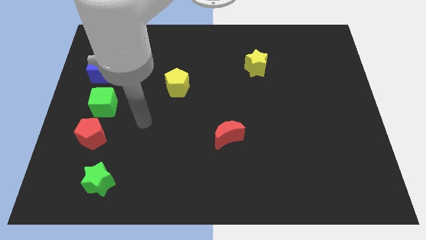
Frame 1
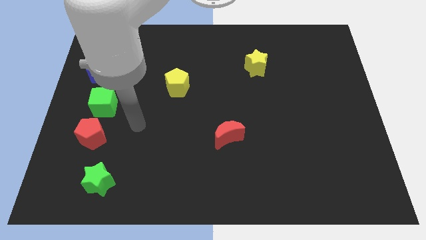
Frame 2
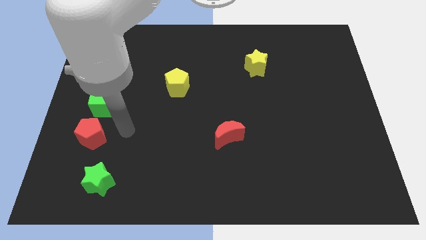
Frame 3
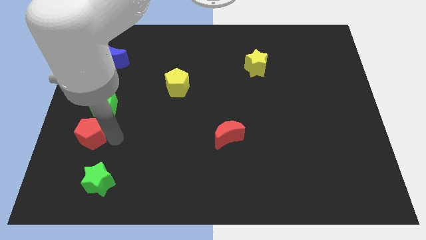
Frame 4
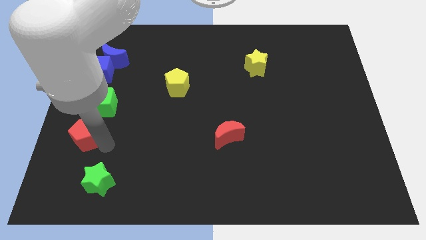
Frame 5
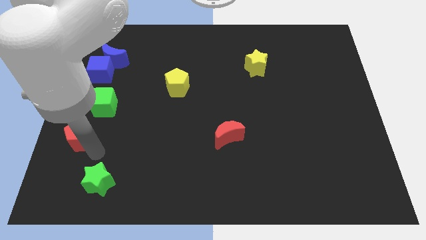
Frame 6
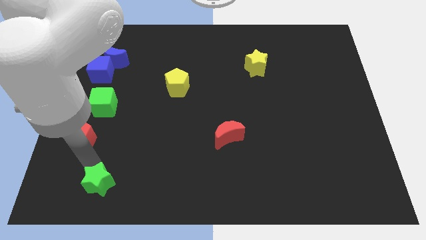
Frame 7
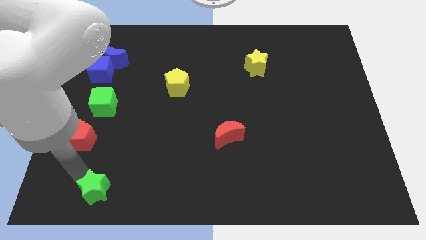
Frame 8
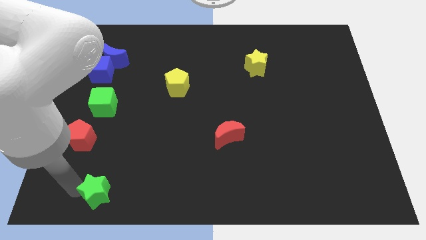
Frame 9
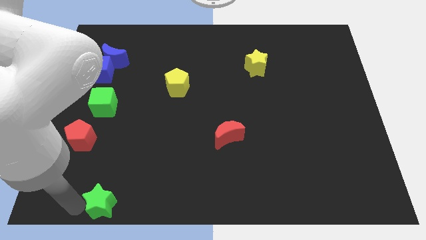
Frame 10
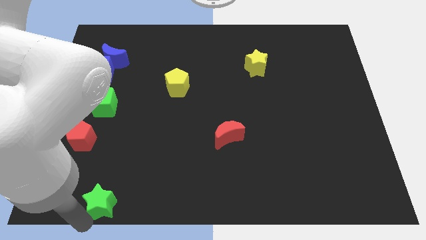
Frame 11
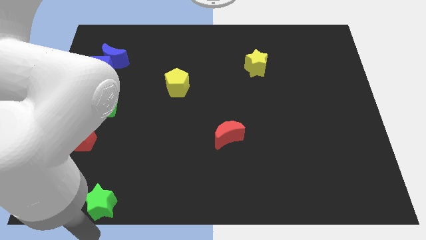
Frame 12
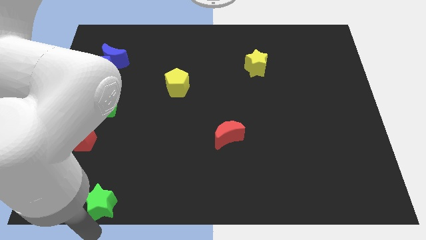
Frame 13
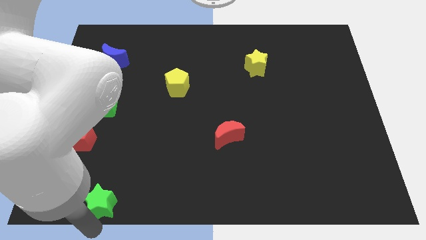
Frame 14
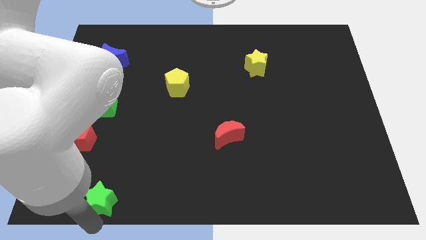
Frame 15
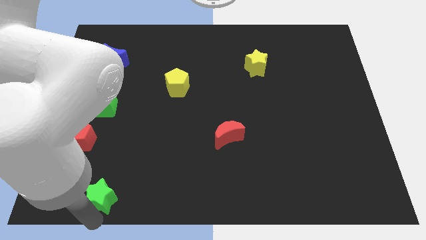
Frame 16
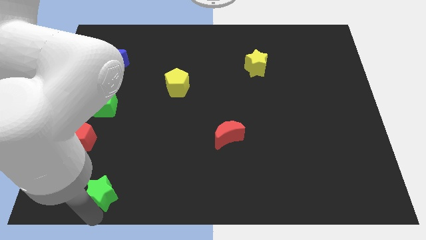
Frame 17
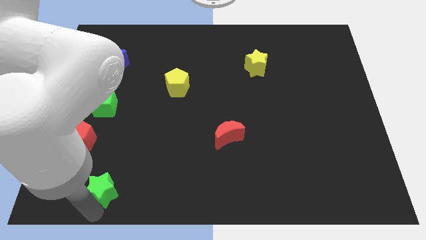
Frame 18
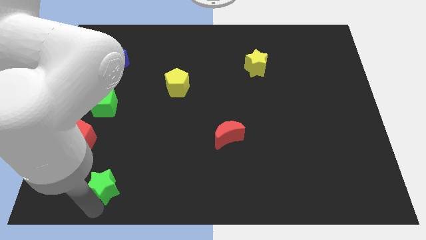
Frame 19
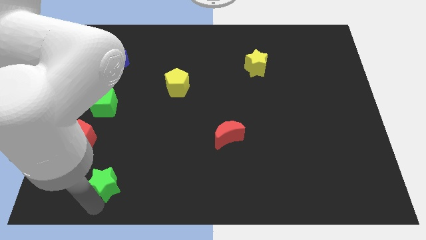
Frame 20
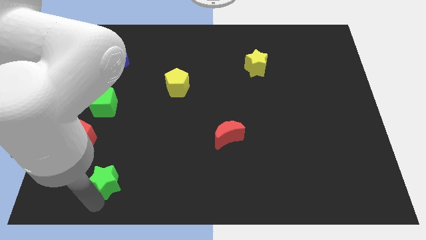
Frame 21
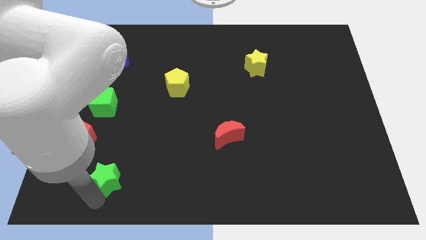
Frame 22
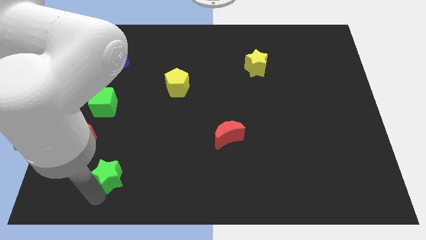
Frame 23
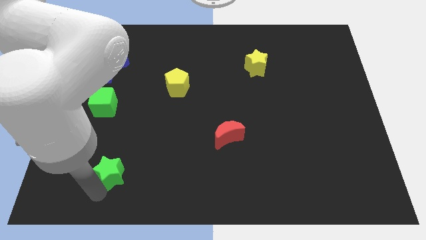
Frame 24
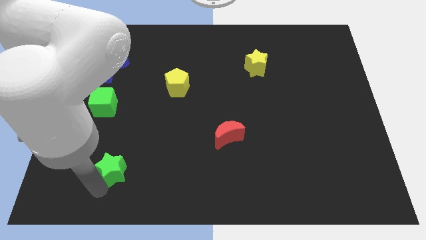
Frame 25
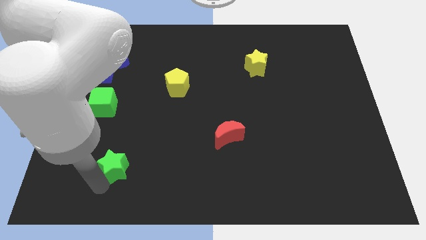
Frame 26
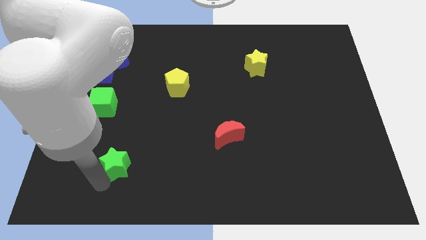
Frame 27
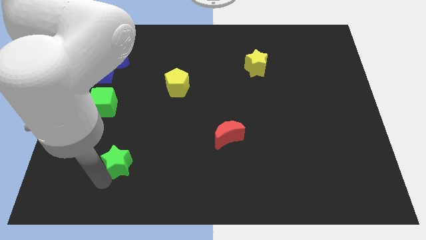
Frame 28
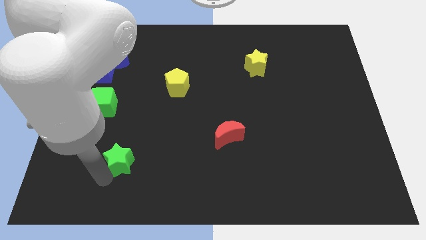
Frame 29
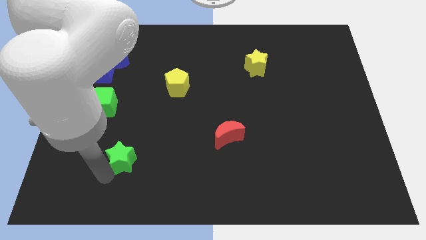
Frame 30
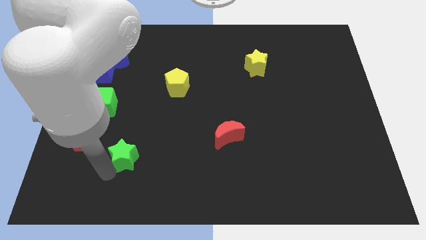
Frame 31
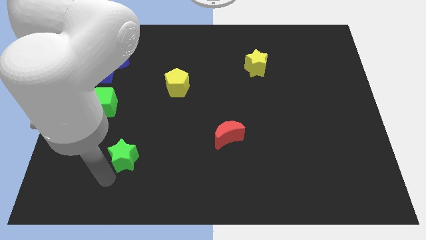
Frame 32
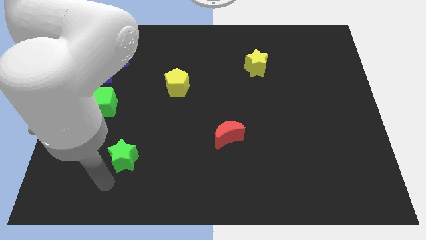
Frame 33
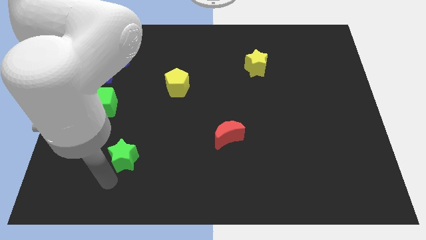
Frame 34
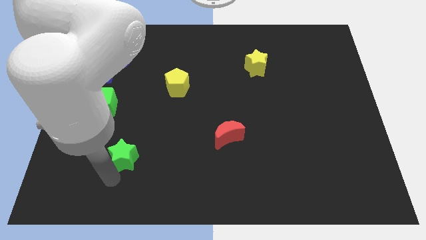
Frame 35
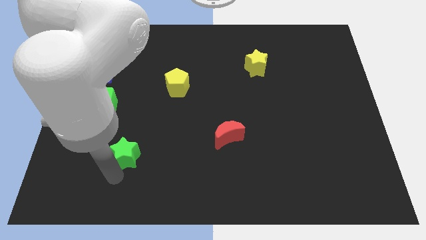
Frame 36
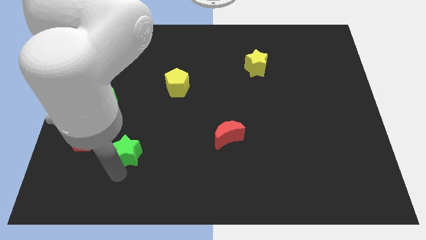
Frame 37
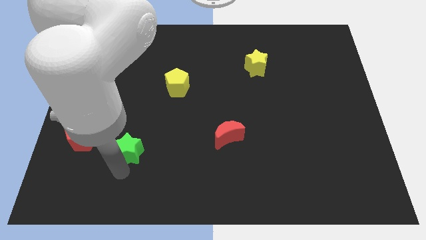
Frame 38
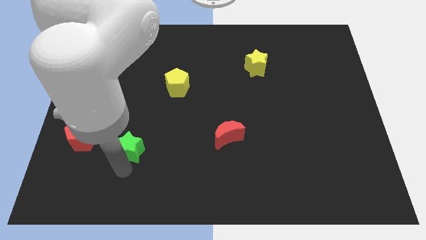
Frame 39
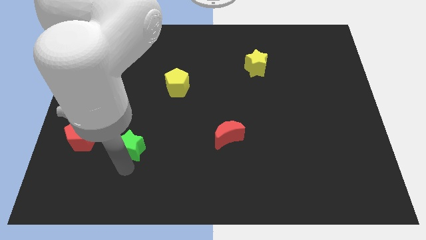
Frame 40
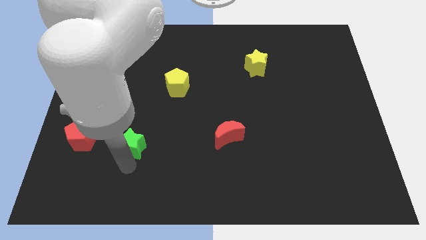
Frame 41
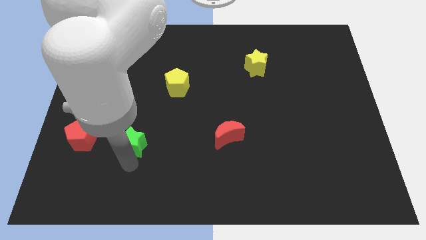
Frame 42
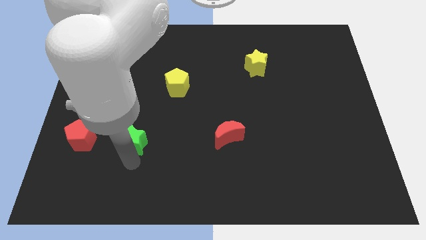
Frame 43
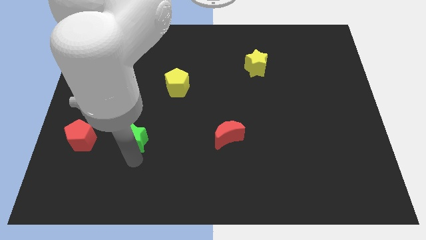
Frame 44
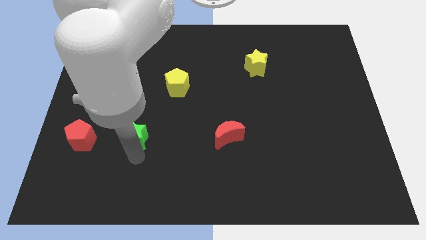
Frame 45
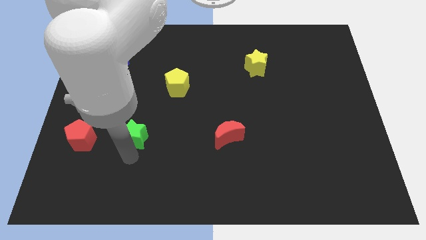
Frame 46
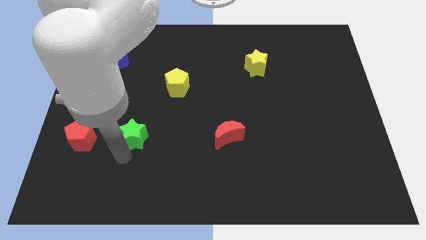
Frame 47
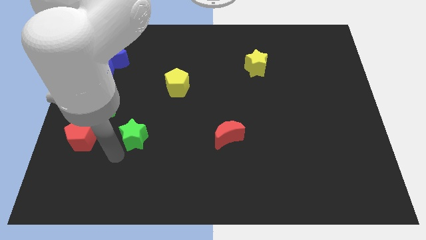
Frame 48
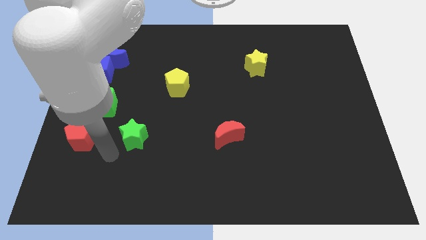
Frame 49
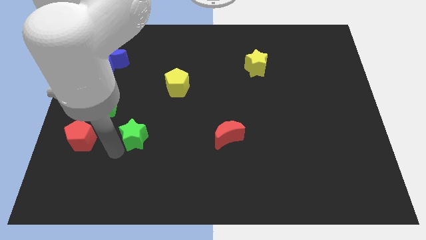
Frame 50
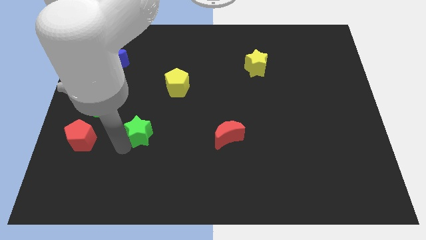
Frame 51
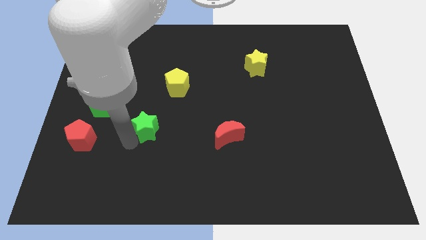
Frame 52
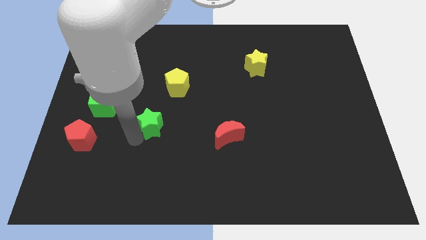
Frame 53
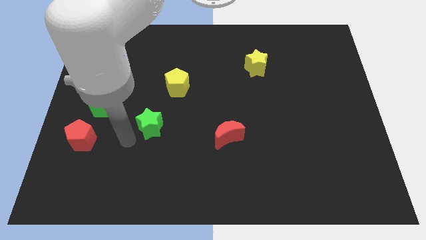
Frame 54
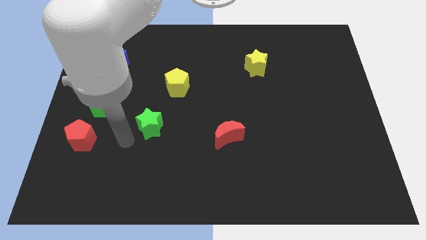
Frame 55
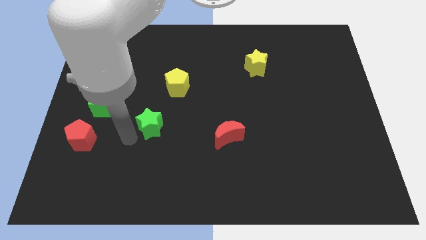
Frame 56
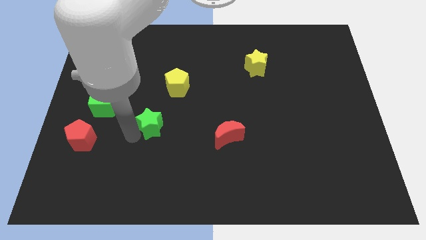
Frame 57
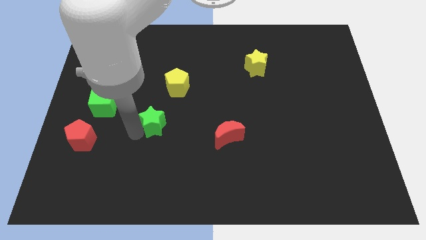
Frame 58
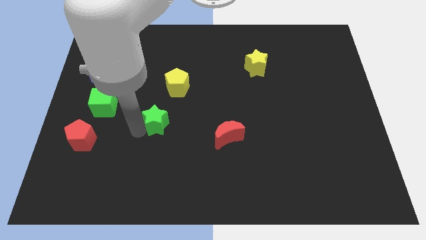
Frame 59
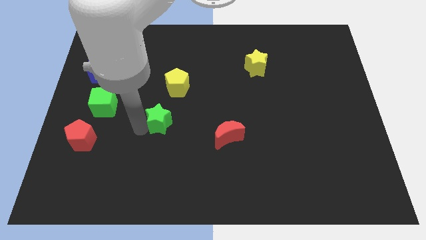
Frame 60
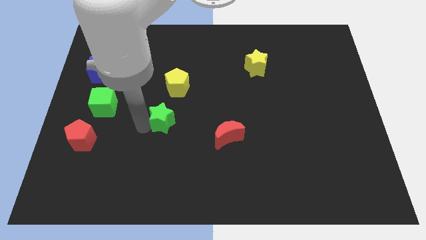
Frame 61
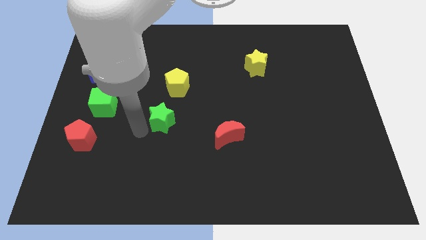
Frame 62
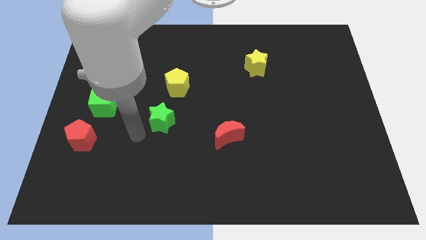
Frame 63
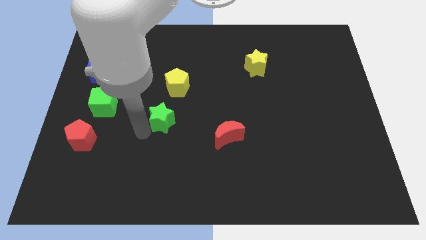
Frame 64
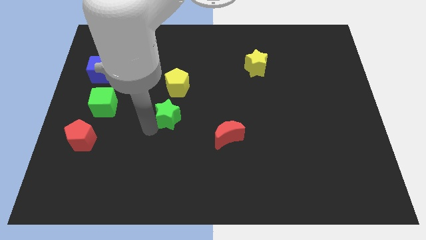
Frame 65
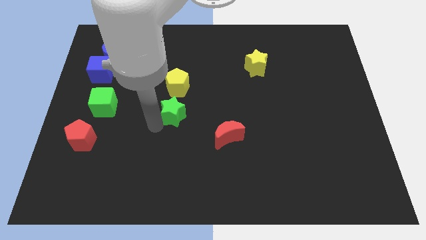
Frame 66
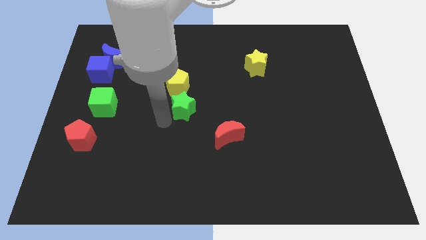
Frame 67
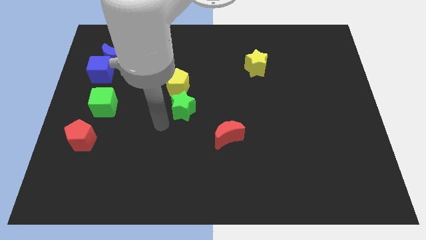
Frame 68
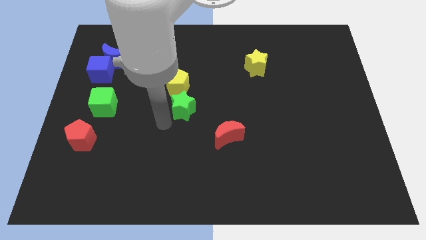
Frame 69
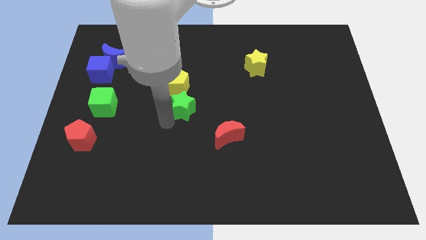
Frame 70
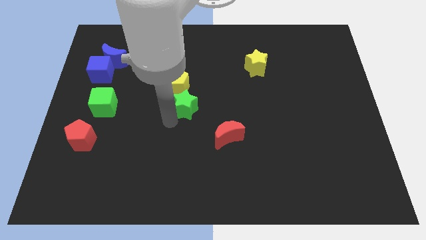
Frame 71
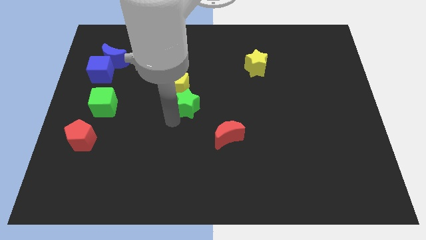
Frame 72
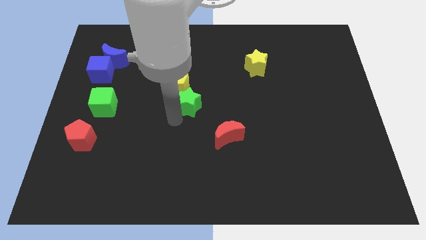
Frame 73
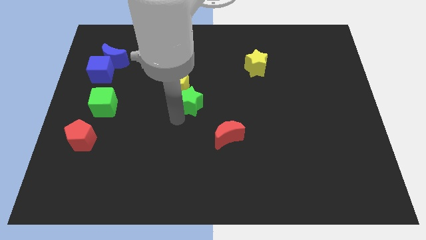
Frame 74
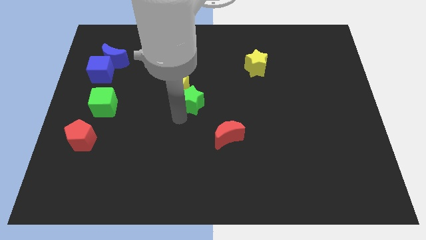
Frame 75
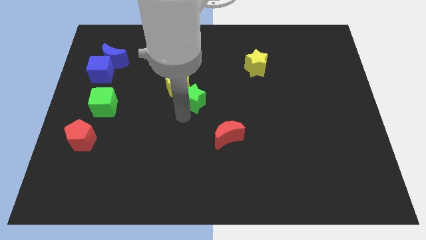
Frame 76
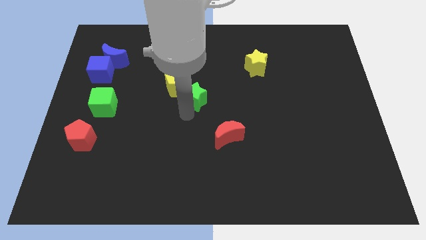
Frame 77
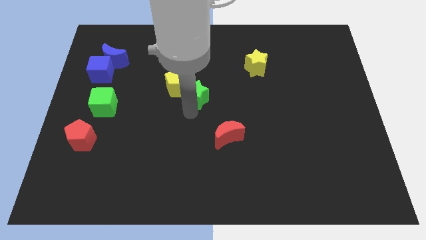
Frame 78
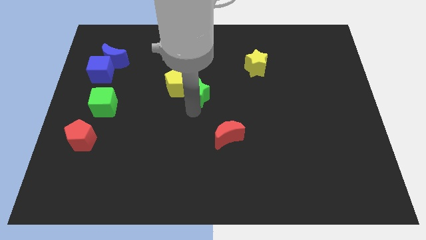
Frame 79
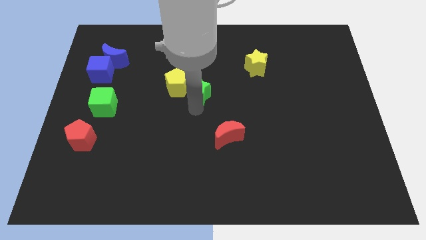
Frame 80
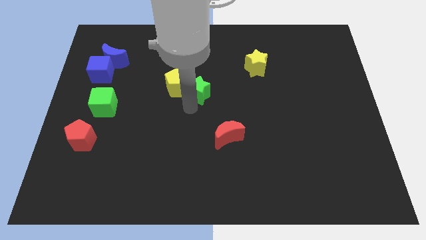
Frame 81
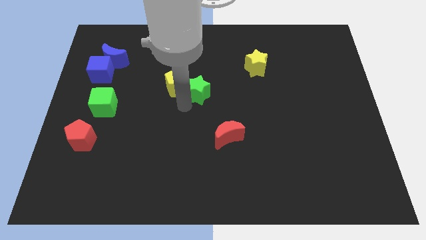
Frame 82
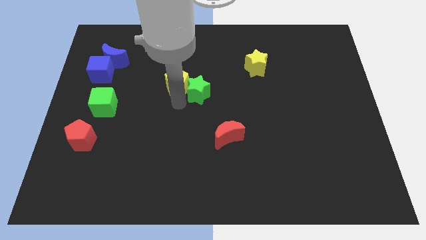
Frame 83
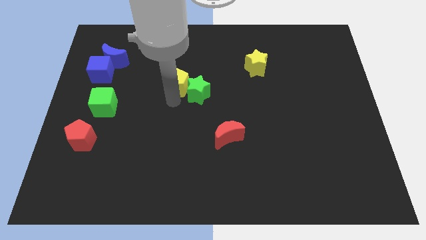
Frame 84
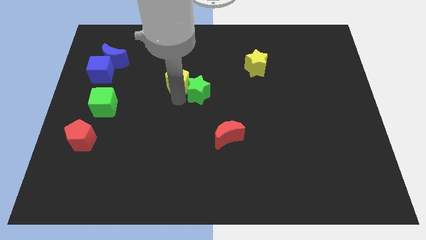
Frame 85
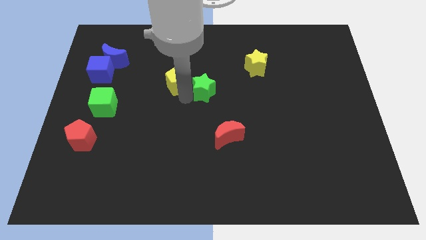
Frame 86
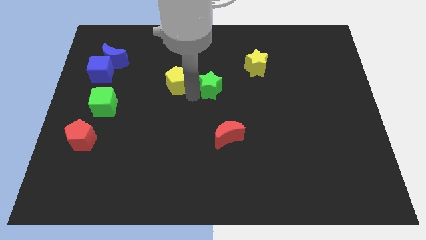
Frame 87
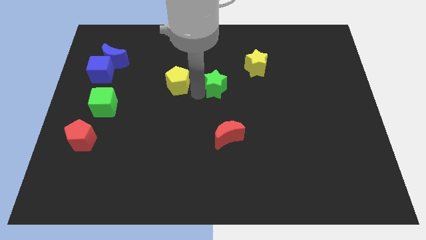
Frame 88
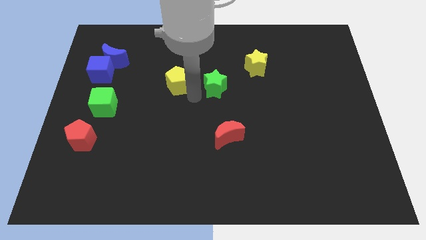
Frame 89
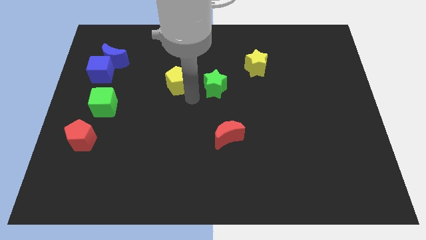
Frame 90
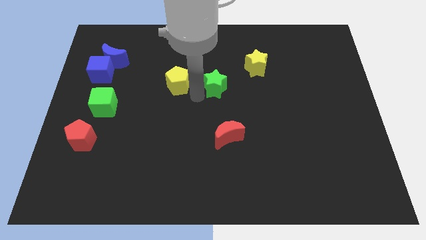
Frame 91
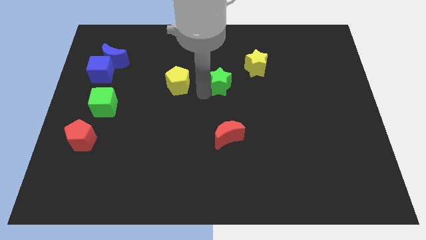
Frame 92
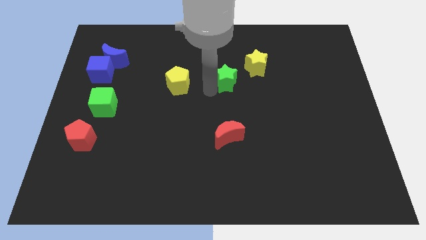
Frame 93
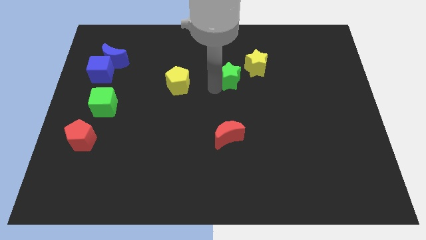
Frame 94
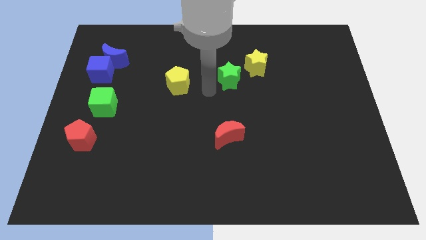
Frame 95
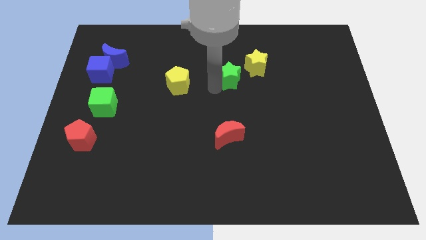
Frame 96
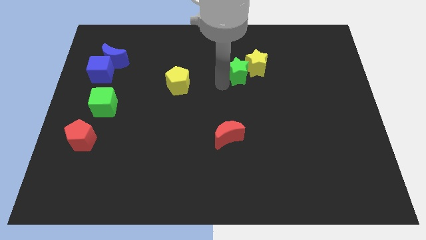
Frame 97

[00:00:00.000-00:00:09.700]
put the green star next to the yellow star
